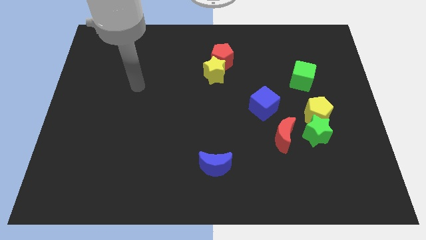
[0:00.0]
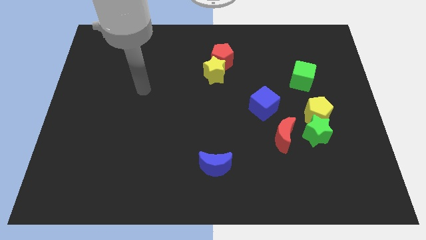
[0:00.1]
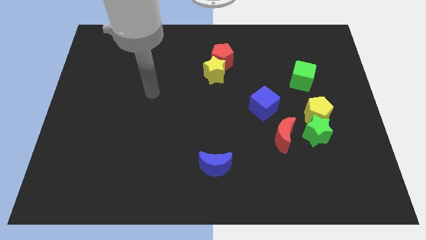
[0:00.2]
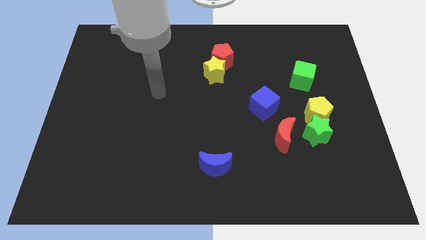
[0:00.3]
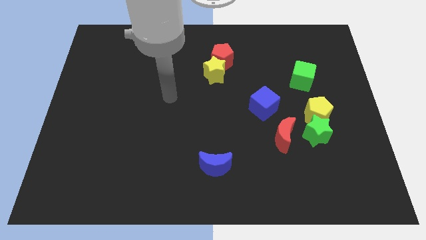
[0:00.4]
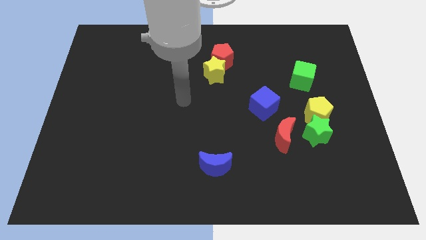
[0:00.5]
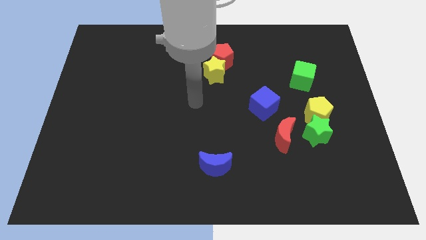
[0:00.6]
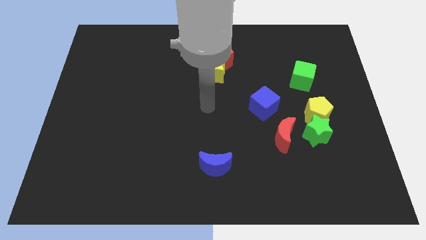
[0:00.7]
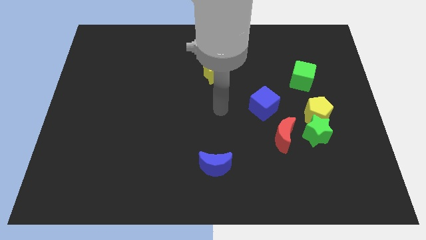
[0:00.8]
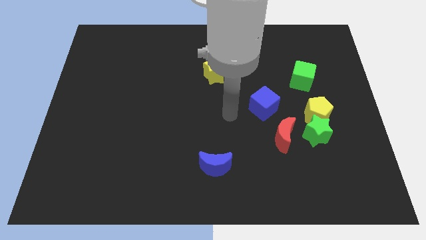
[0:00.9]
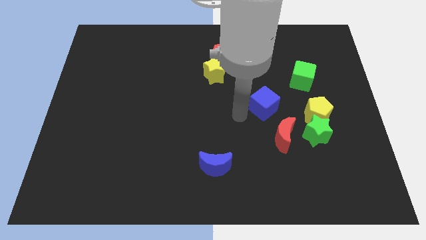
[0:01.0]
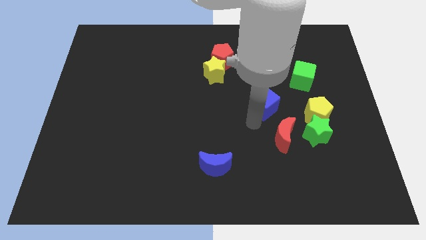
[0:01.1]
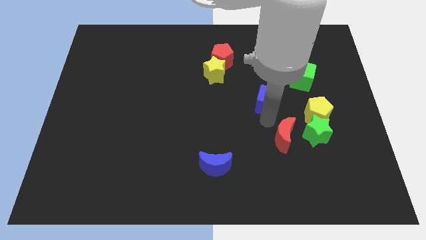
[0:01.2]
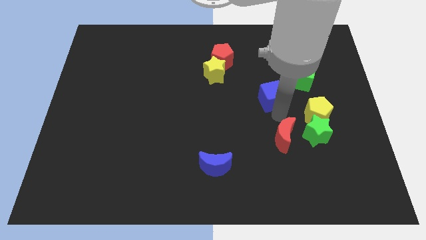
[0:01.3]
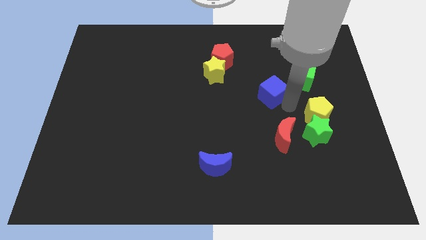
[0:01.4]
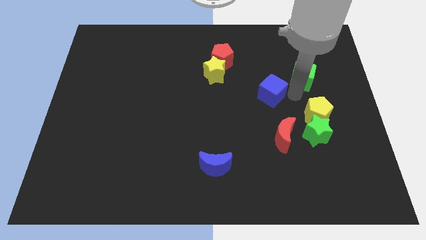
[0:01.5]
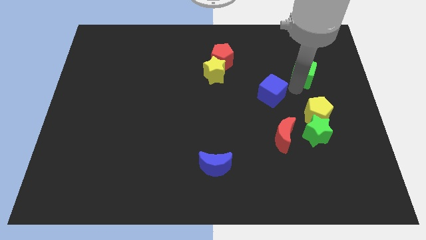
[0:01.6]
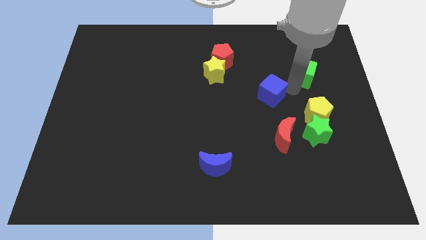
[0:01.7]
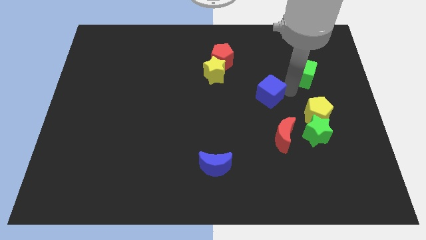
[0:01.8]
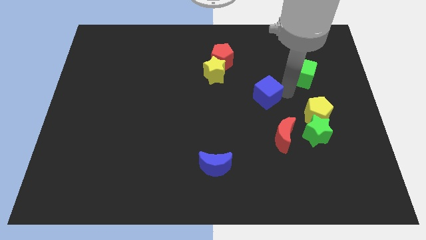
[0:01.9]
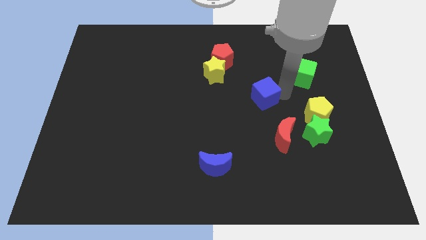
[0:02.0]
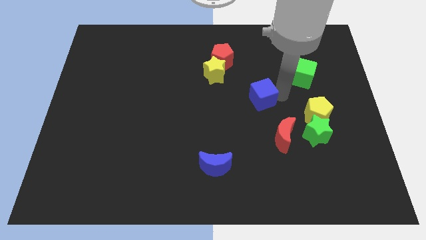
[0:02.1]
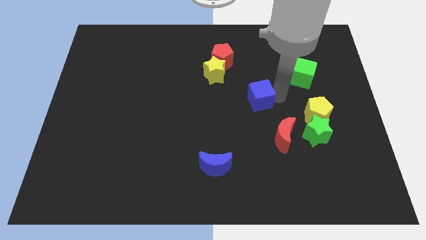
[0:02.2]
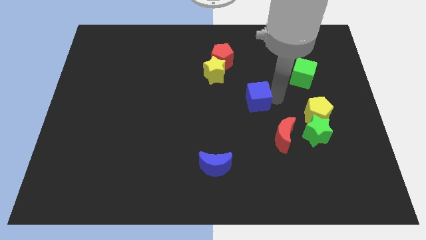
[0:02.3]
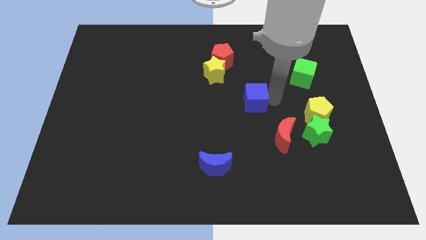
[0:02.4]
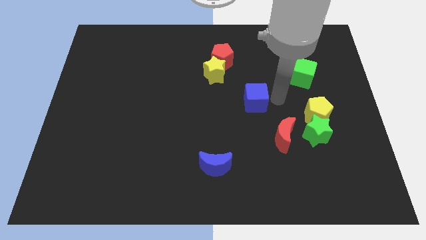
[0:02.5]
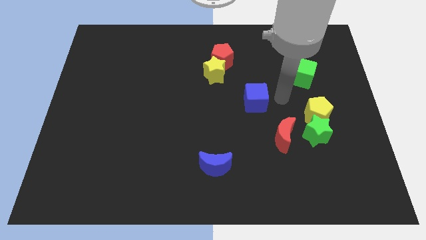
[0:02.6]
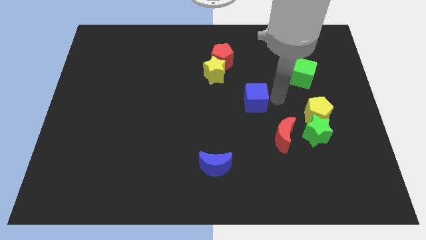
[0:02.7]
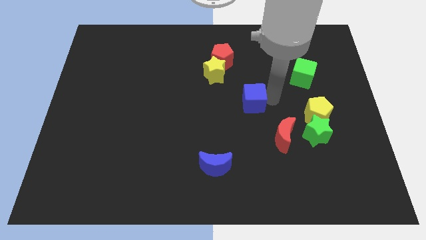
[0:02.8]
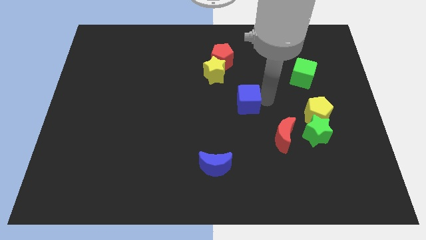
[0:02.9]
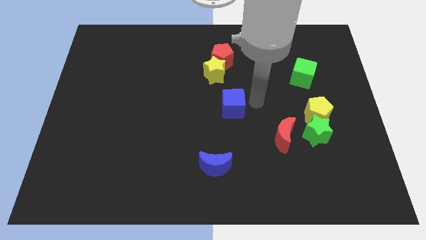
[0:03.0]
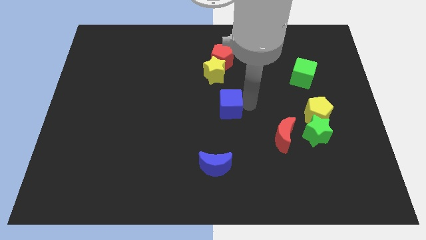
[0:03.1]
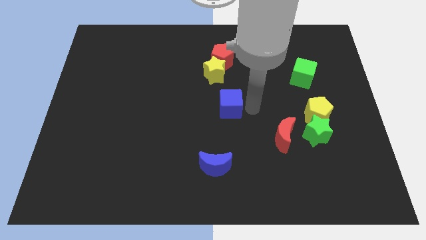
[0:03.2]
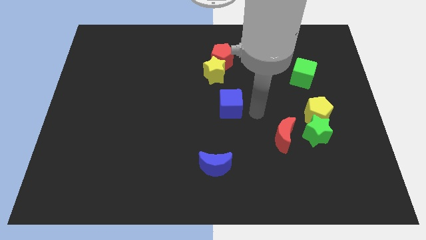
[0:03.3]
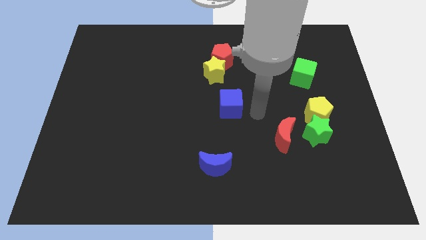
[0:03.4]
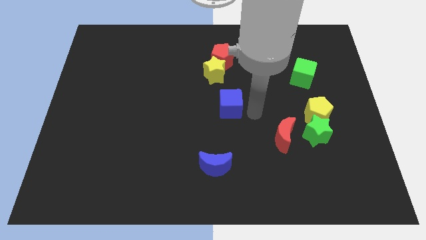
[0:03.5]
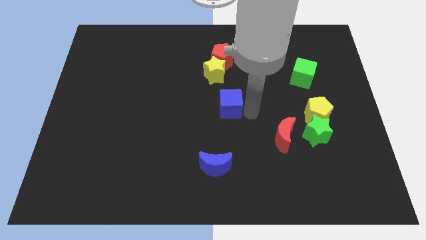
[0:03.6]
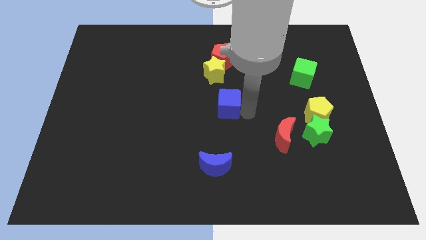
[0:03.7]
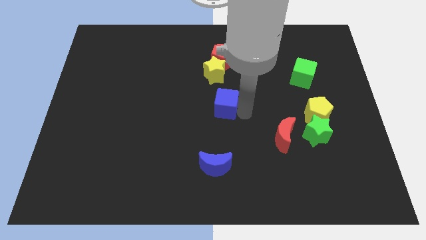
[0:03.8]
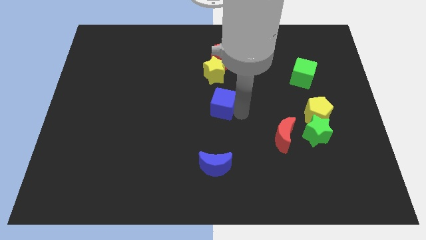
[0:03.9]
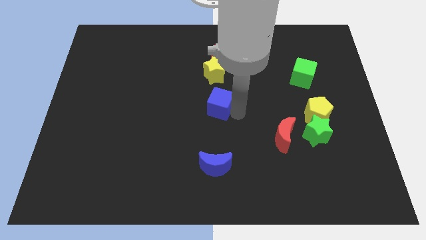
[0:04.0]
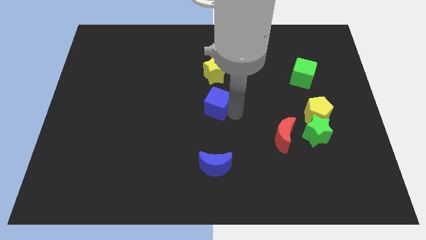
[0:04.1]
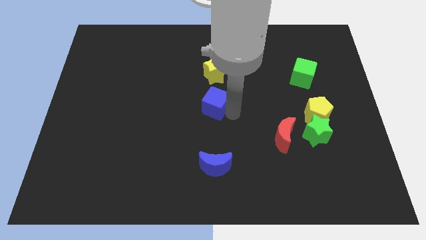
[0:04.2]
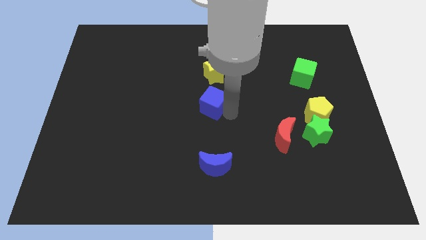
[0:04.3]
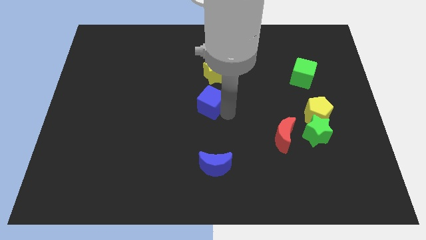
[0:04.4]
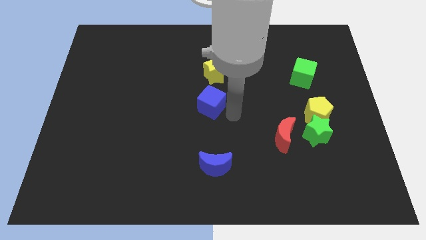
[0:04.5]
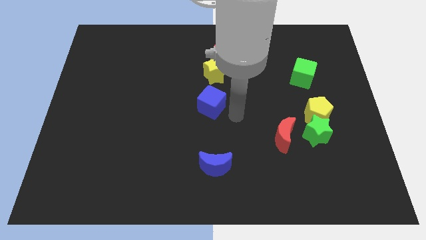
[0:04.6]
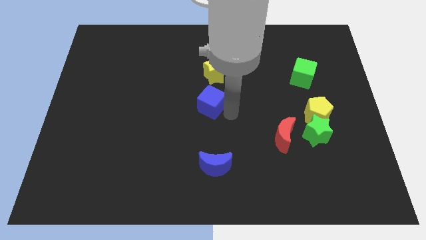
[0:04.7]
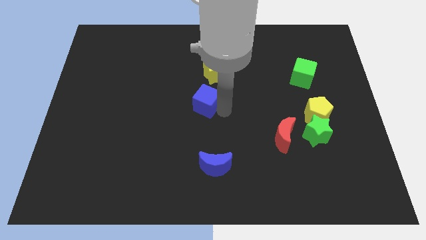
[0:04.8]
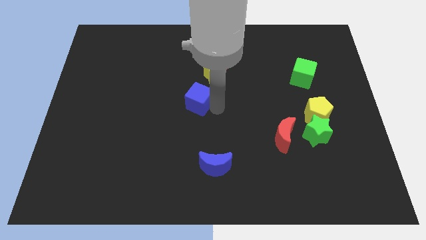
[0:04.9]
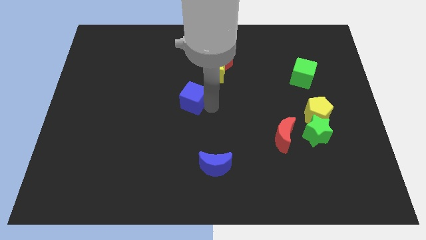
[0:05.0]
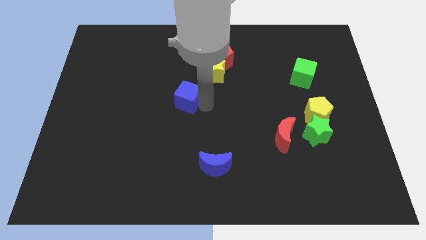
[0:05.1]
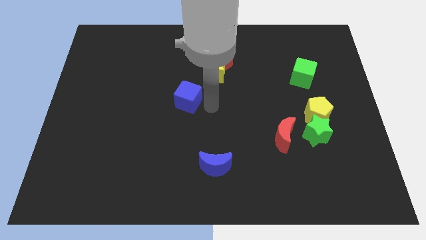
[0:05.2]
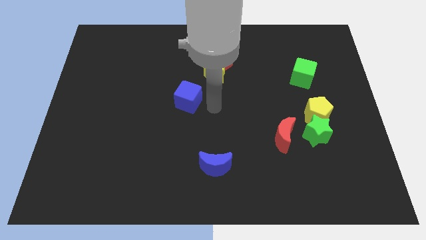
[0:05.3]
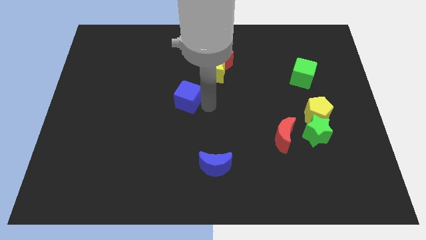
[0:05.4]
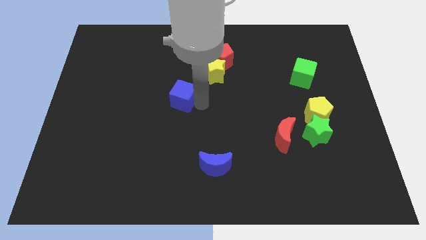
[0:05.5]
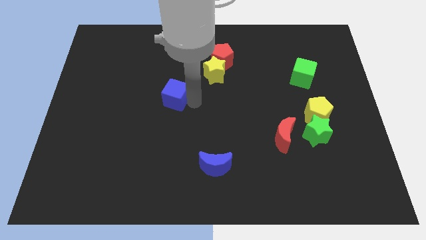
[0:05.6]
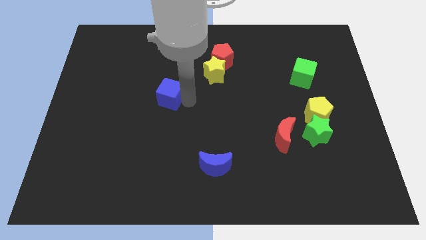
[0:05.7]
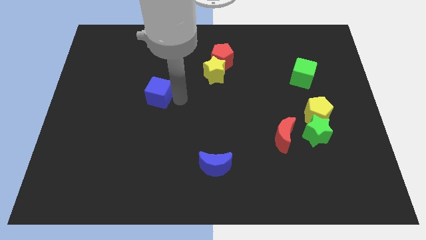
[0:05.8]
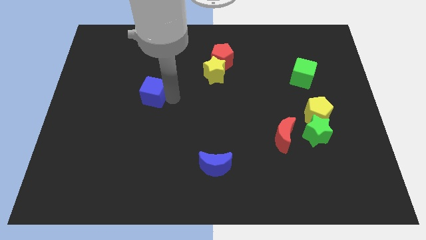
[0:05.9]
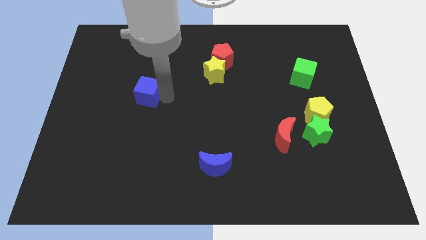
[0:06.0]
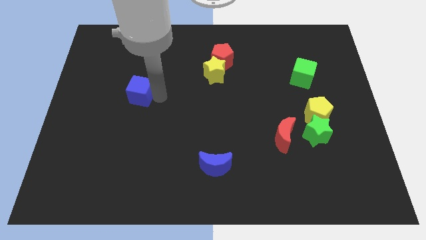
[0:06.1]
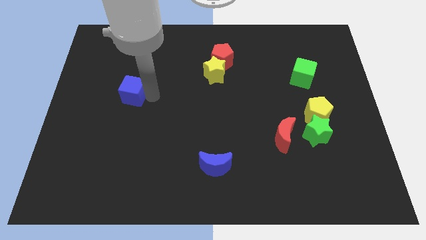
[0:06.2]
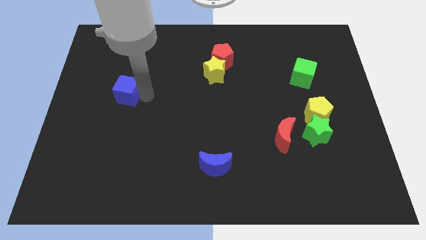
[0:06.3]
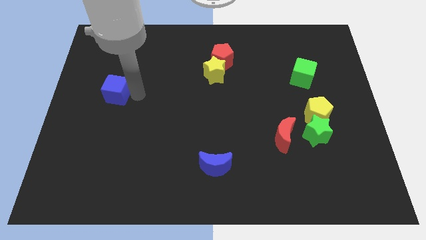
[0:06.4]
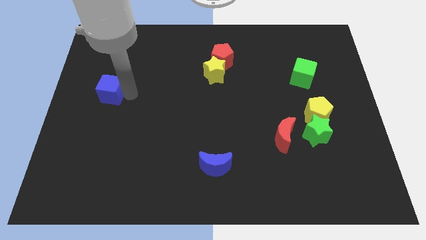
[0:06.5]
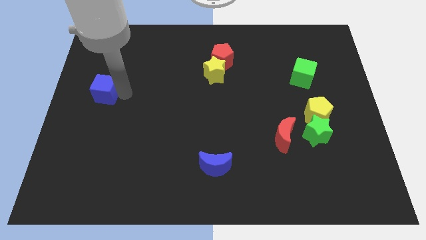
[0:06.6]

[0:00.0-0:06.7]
move the blue cube to the center left
